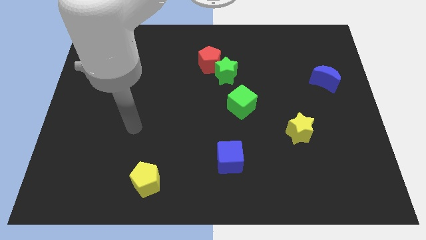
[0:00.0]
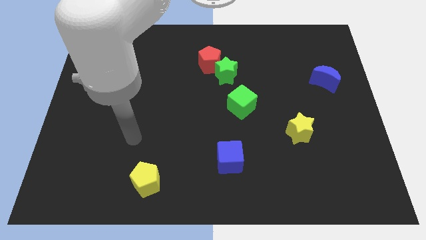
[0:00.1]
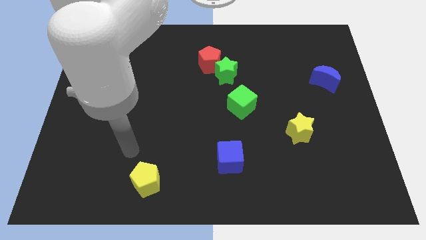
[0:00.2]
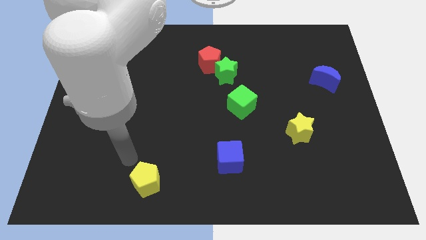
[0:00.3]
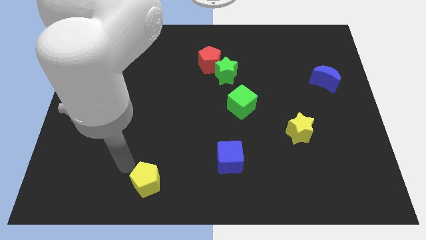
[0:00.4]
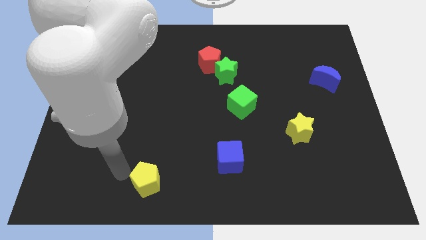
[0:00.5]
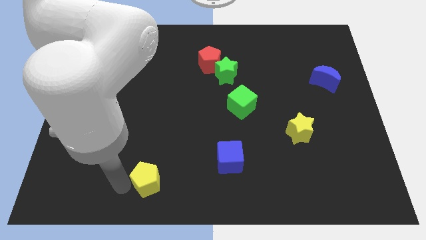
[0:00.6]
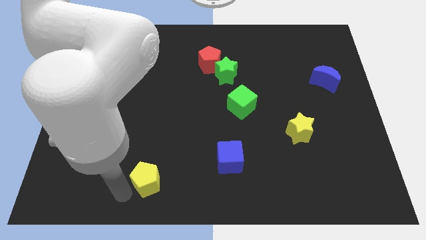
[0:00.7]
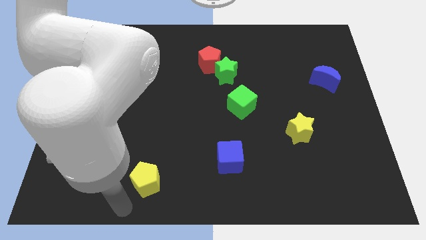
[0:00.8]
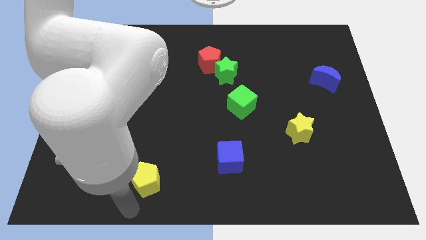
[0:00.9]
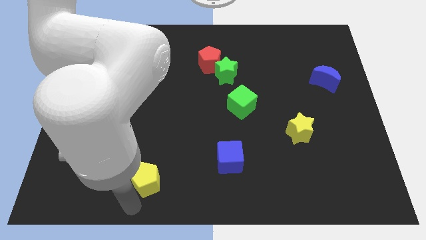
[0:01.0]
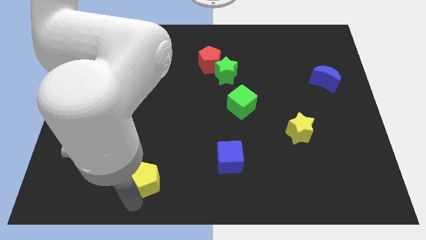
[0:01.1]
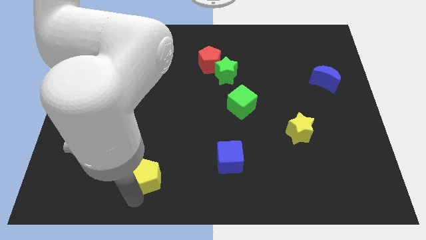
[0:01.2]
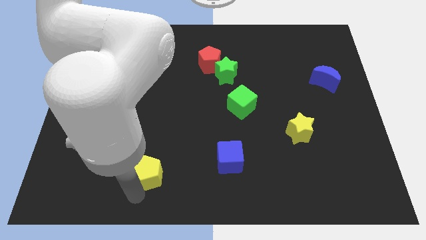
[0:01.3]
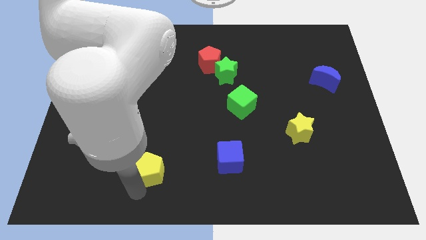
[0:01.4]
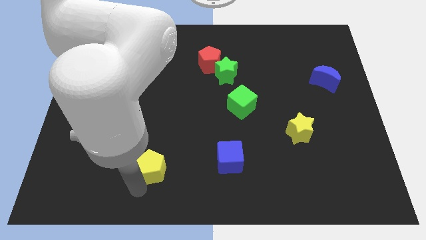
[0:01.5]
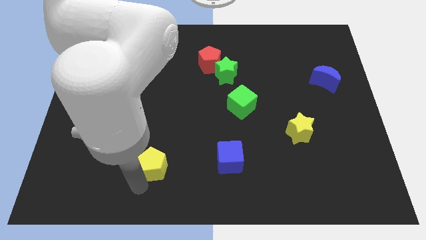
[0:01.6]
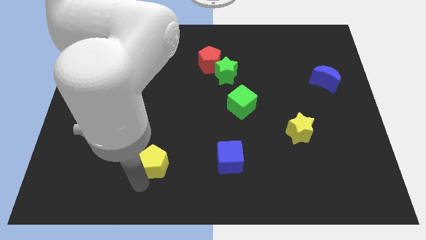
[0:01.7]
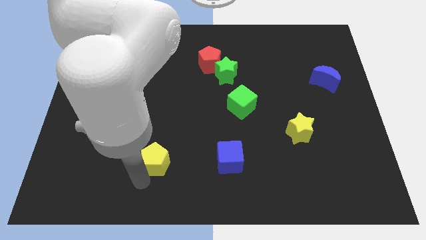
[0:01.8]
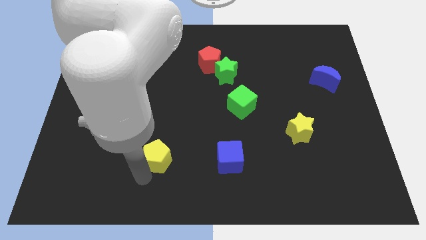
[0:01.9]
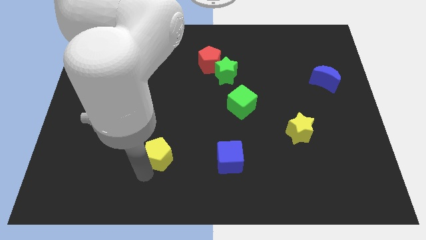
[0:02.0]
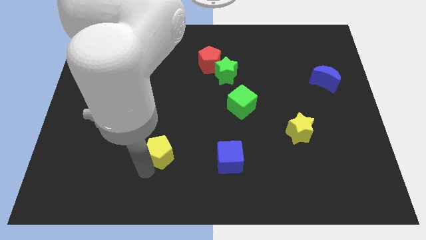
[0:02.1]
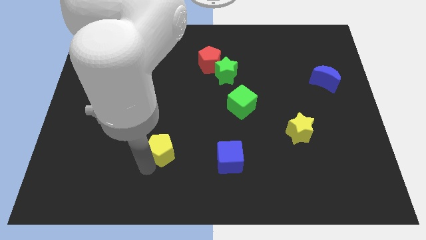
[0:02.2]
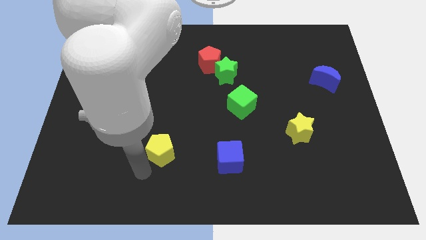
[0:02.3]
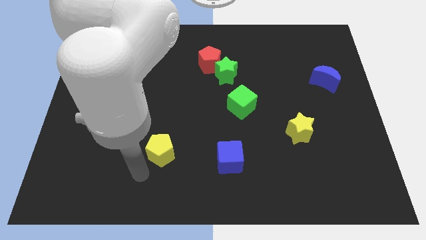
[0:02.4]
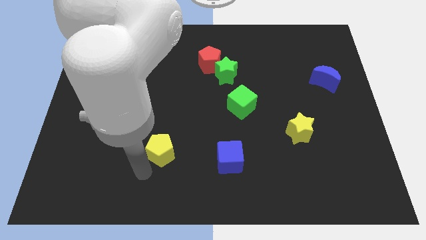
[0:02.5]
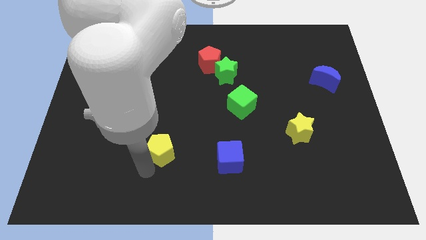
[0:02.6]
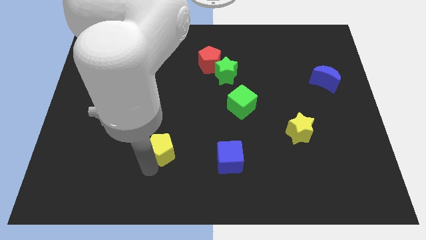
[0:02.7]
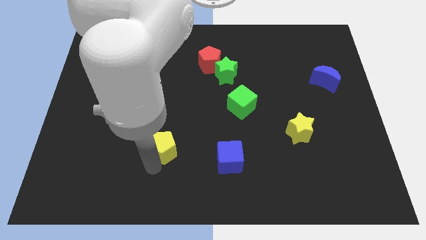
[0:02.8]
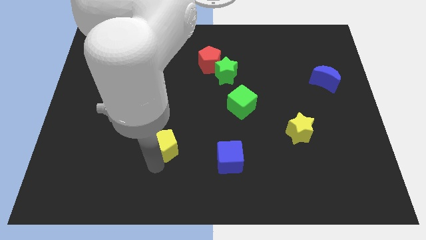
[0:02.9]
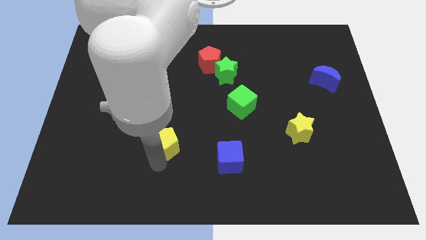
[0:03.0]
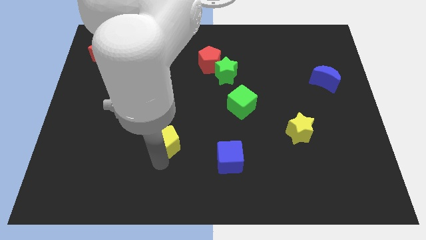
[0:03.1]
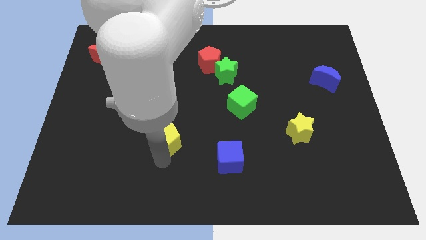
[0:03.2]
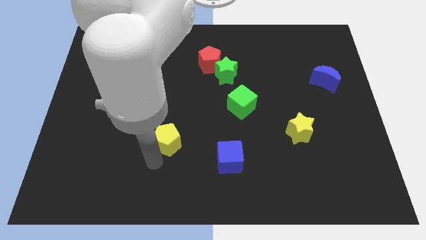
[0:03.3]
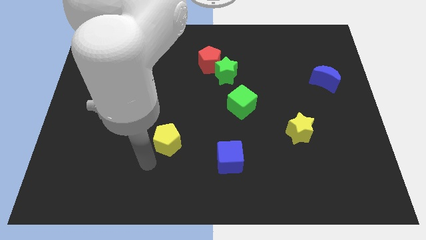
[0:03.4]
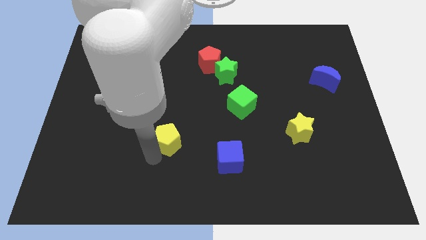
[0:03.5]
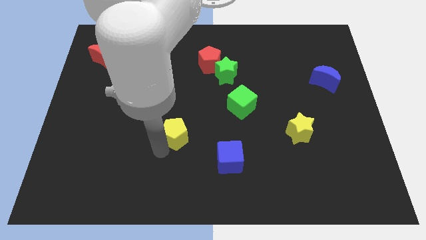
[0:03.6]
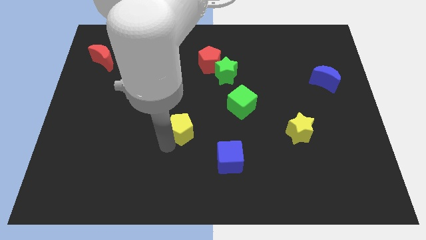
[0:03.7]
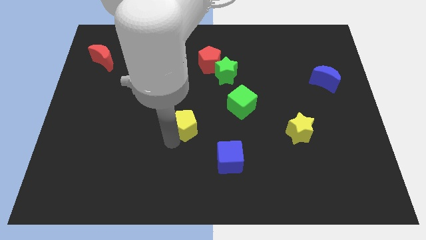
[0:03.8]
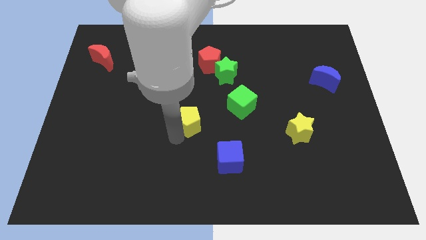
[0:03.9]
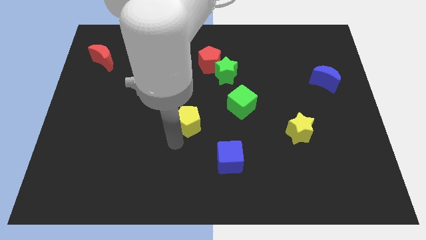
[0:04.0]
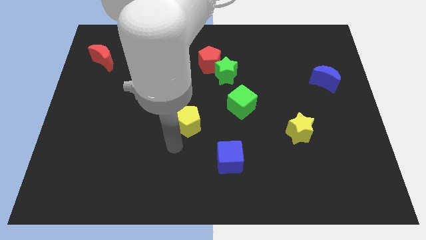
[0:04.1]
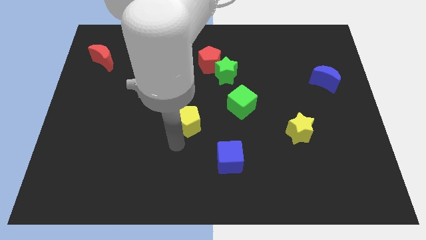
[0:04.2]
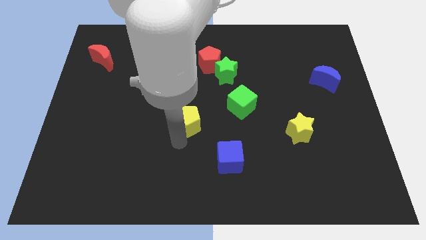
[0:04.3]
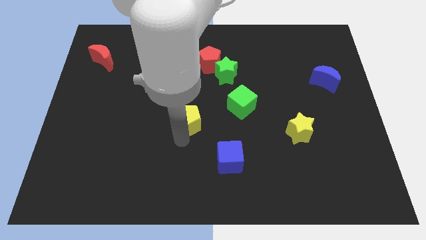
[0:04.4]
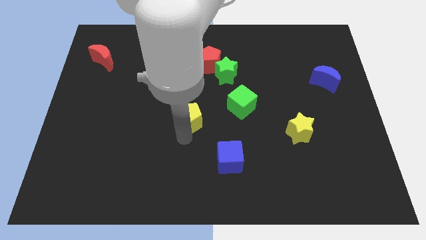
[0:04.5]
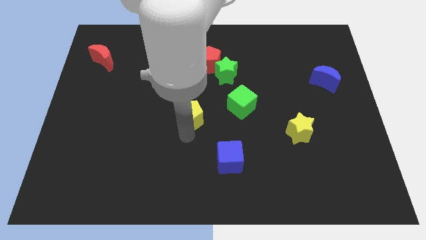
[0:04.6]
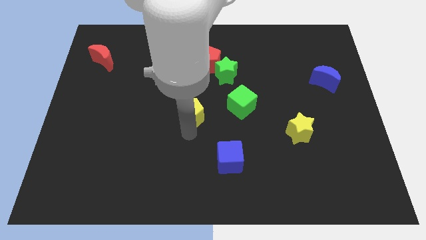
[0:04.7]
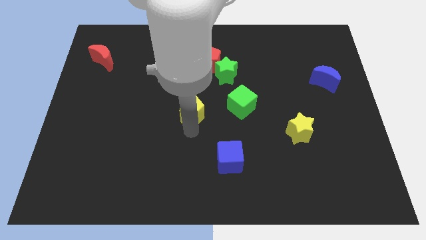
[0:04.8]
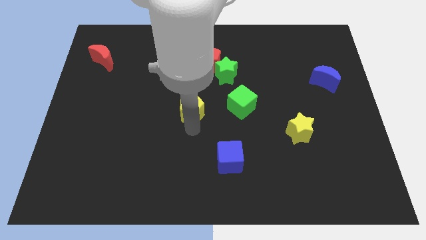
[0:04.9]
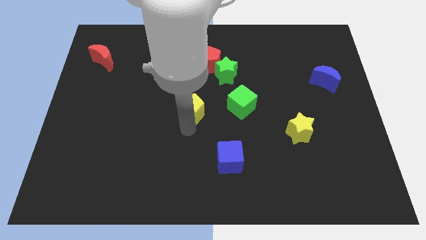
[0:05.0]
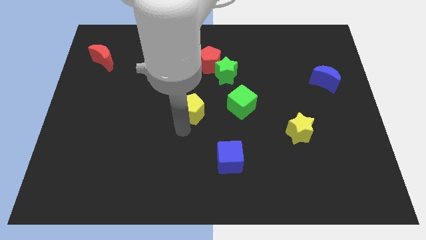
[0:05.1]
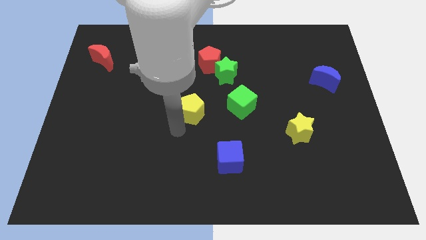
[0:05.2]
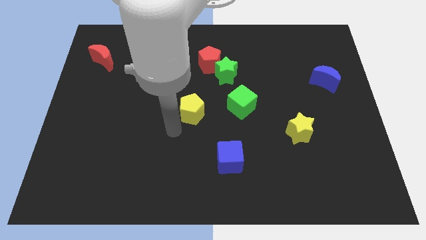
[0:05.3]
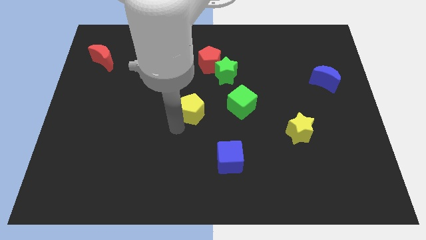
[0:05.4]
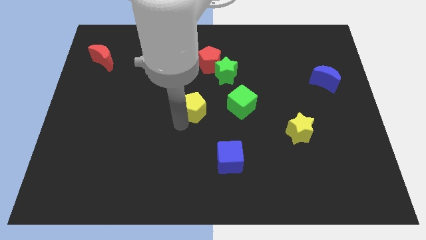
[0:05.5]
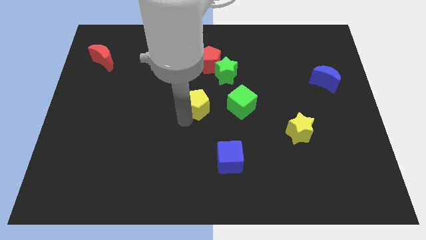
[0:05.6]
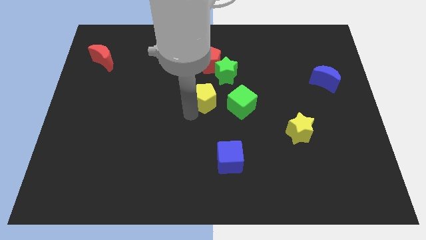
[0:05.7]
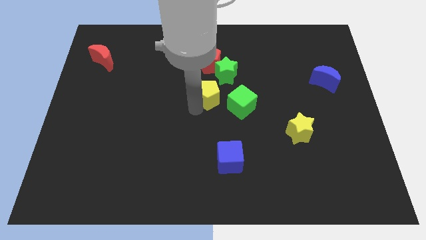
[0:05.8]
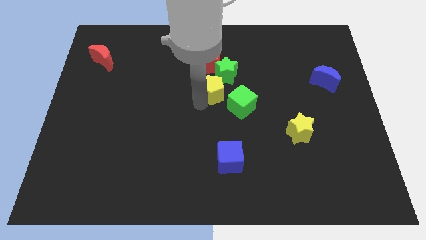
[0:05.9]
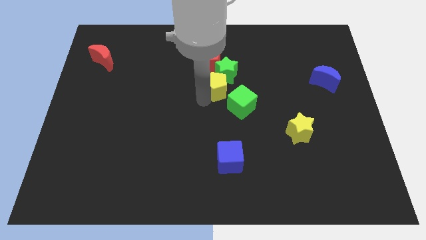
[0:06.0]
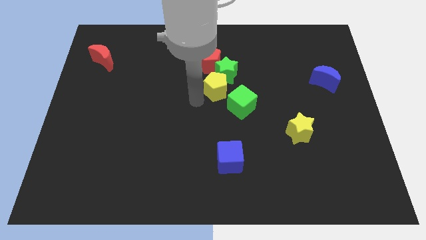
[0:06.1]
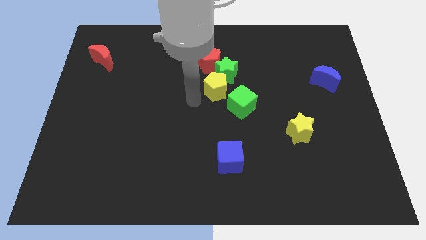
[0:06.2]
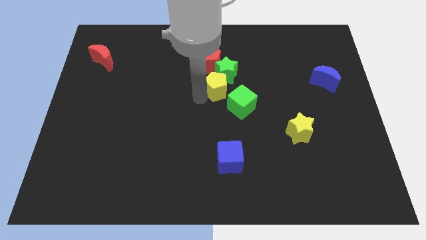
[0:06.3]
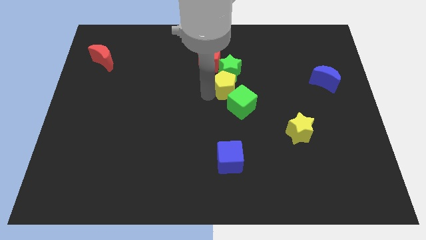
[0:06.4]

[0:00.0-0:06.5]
push the yellow pentagon to the top of the green cube

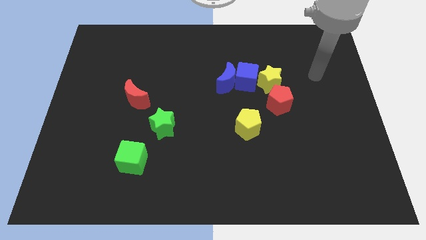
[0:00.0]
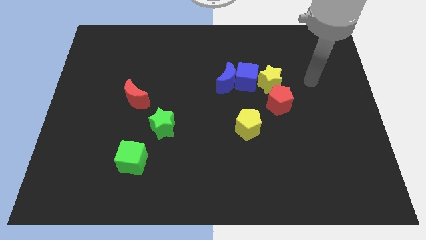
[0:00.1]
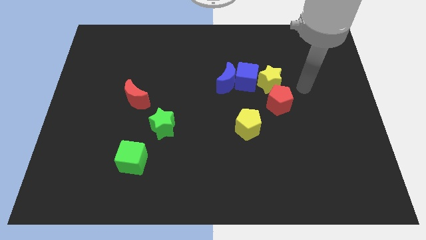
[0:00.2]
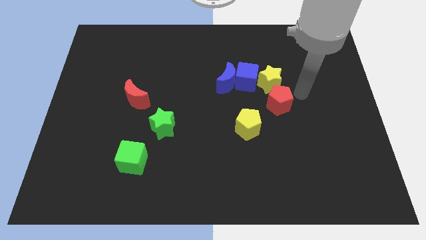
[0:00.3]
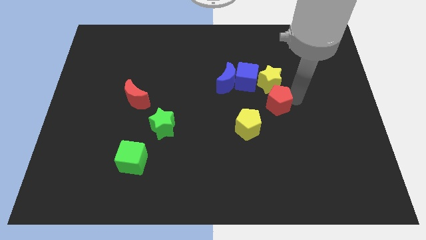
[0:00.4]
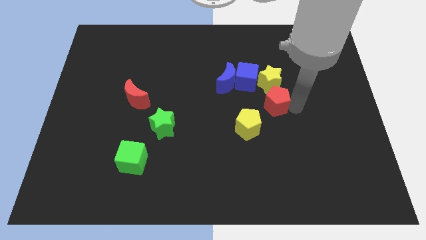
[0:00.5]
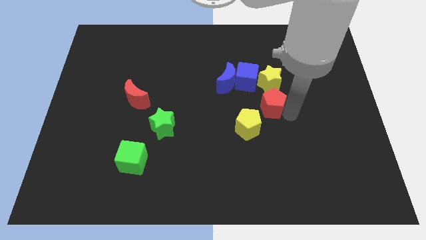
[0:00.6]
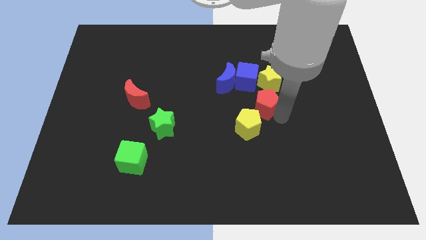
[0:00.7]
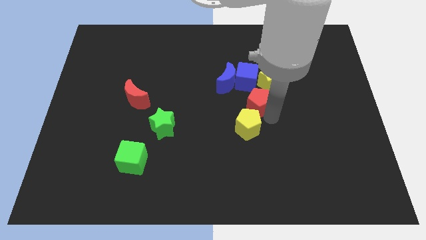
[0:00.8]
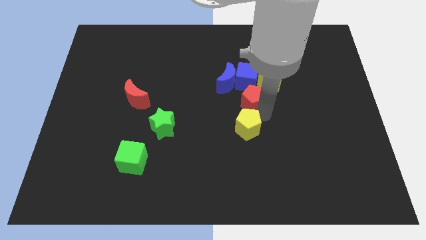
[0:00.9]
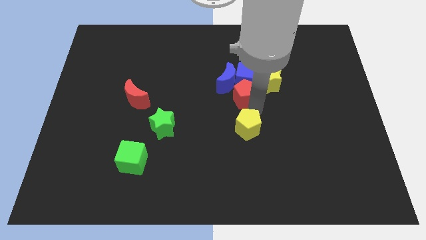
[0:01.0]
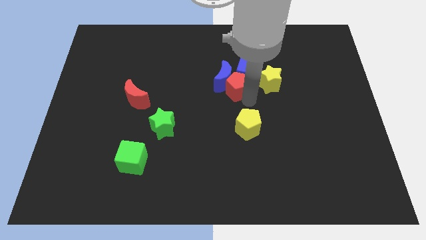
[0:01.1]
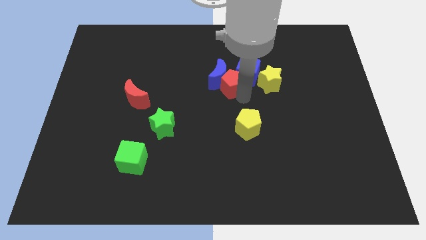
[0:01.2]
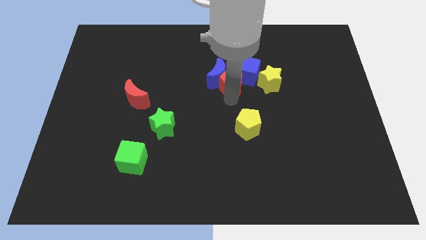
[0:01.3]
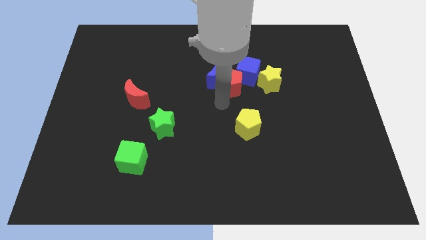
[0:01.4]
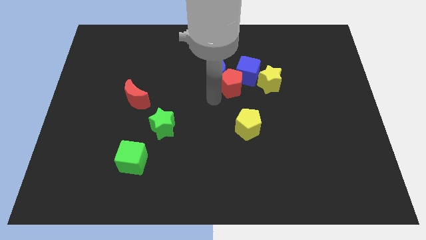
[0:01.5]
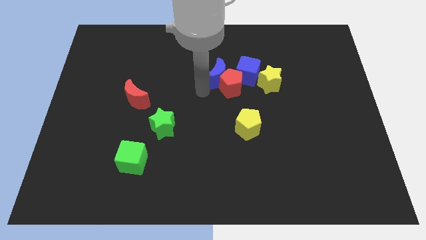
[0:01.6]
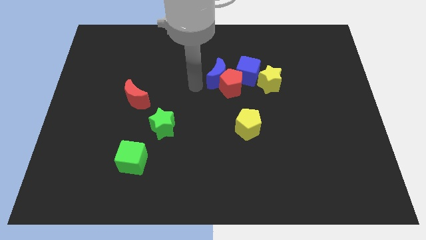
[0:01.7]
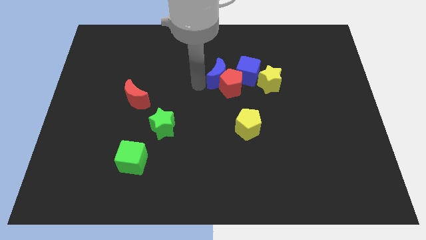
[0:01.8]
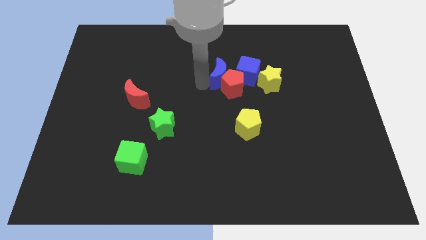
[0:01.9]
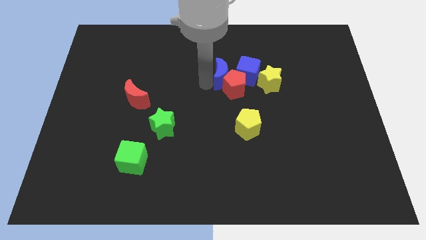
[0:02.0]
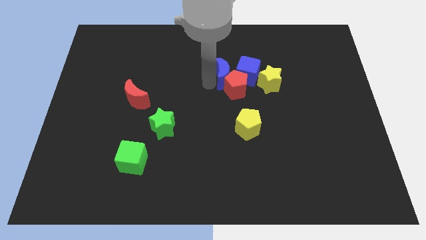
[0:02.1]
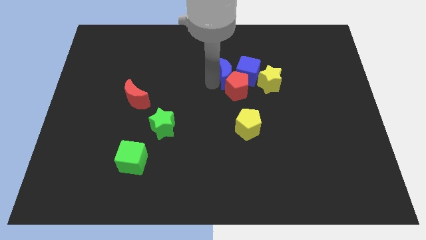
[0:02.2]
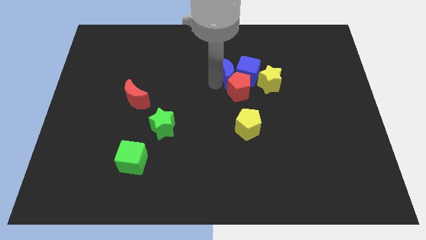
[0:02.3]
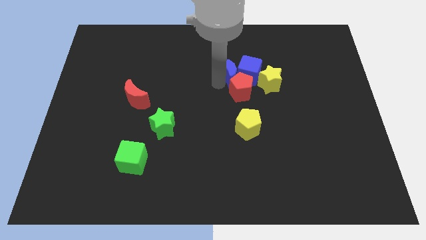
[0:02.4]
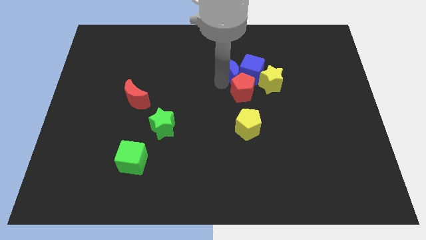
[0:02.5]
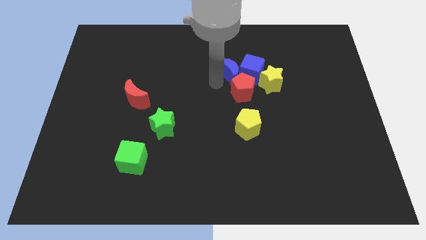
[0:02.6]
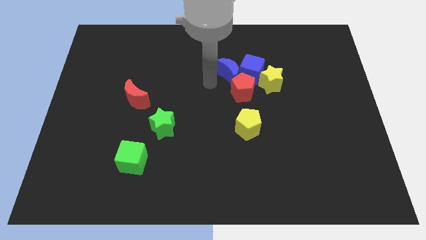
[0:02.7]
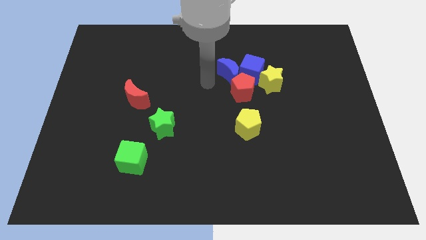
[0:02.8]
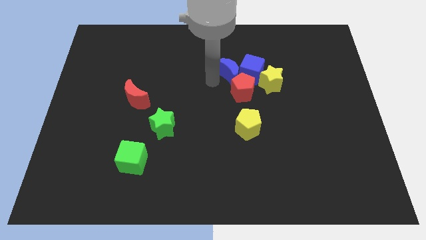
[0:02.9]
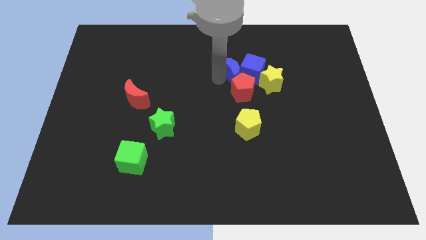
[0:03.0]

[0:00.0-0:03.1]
push the blue moon to the top left side of the yellow star
